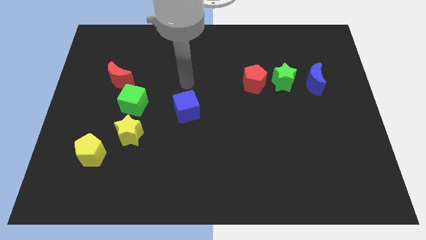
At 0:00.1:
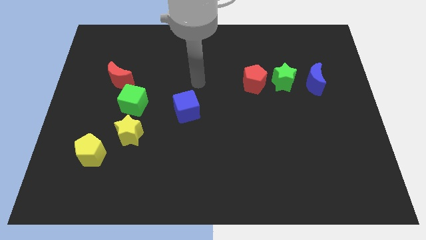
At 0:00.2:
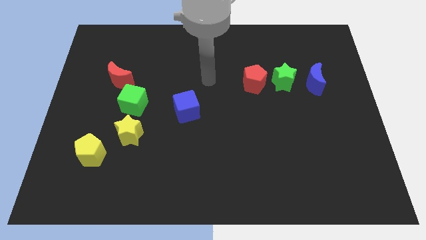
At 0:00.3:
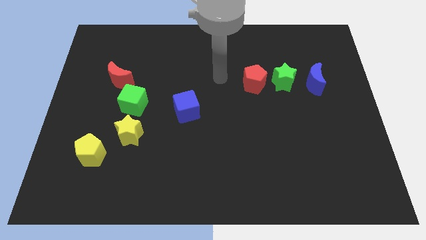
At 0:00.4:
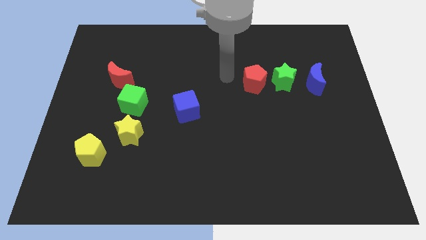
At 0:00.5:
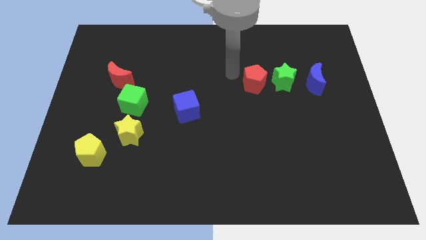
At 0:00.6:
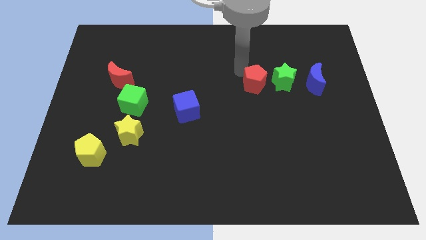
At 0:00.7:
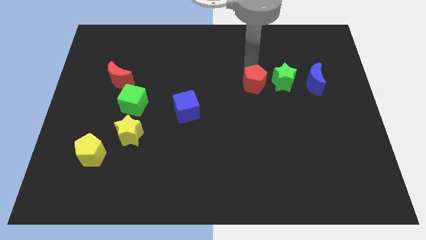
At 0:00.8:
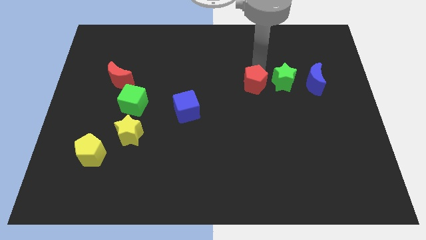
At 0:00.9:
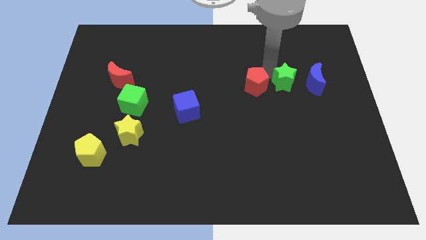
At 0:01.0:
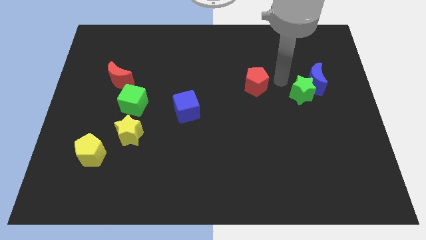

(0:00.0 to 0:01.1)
pull the red pentagon apart from the green star

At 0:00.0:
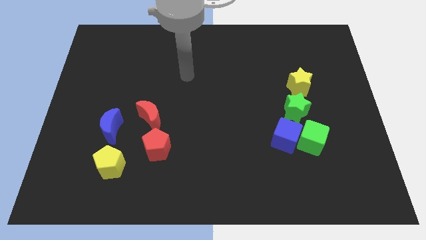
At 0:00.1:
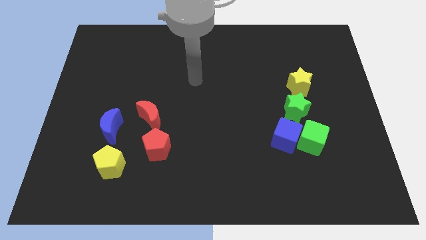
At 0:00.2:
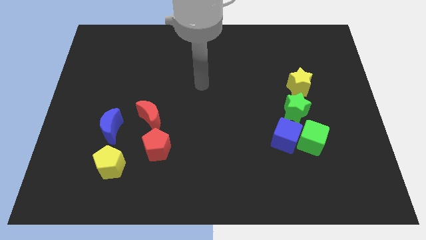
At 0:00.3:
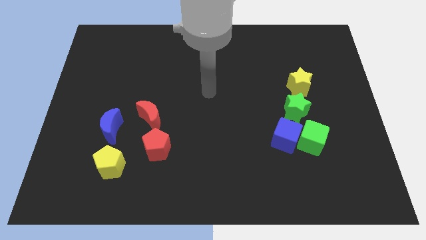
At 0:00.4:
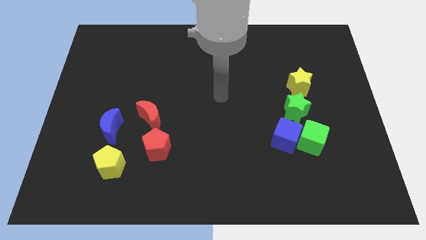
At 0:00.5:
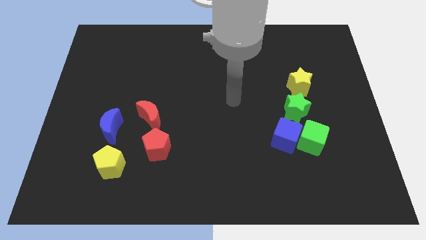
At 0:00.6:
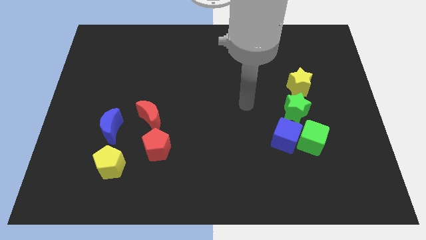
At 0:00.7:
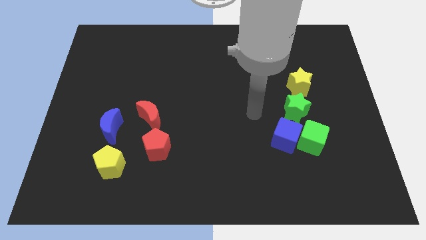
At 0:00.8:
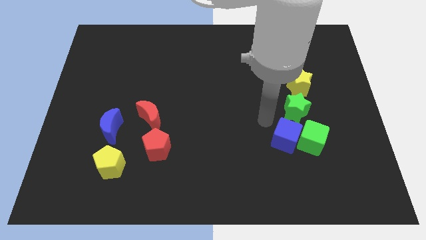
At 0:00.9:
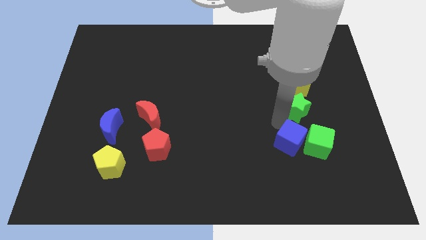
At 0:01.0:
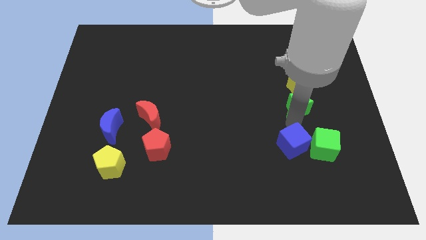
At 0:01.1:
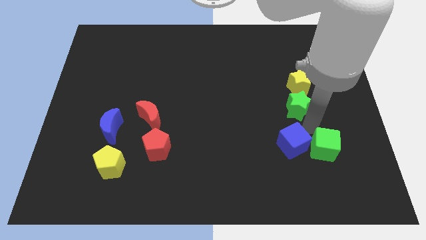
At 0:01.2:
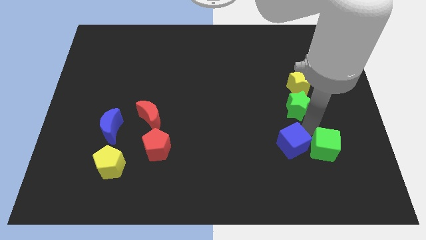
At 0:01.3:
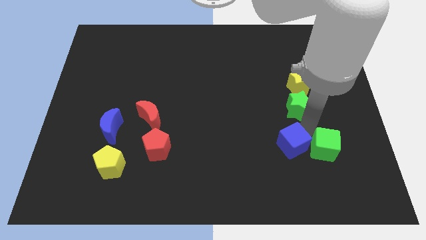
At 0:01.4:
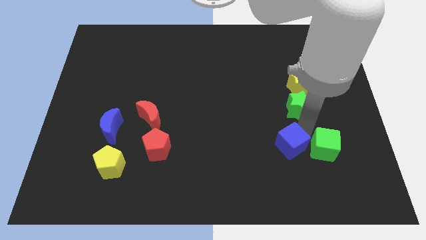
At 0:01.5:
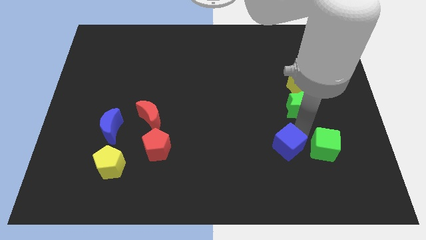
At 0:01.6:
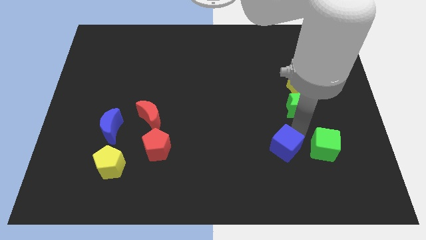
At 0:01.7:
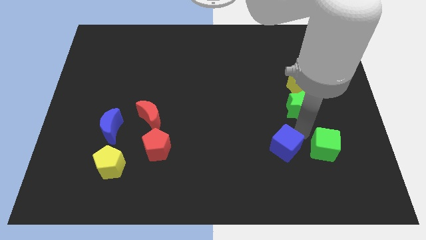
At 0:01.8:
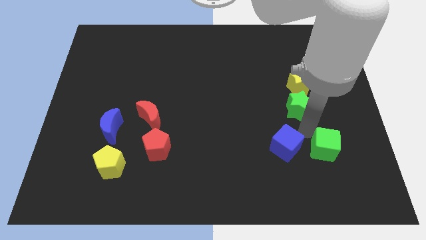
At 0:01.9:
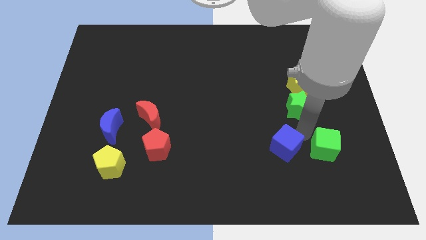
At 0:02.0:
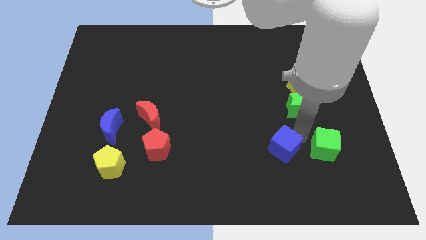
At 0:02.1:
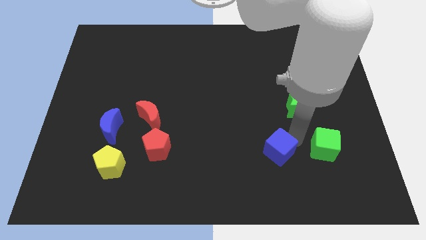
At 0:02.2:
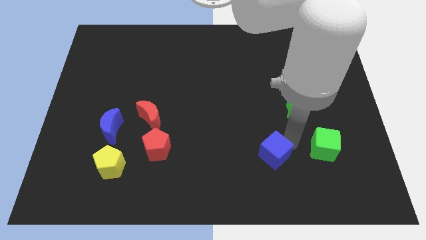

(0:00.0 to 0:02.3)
move the blue cube away from the green cube and green star

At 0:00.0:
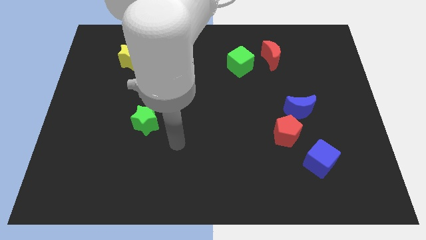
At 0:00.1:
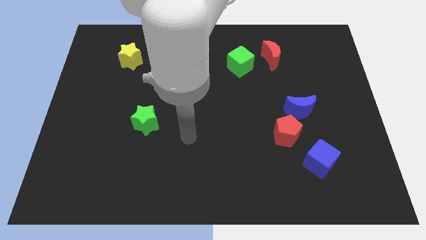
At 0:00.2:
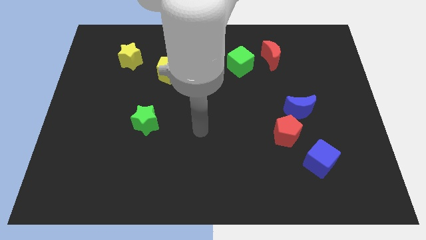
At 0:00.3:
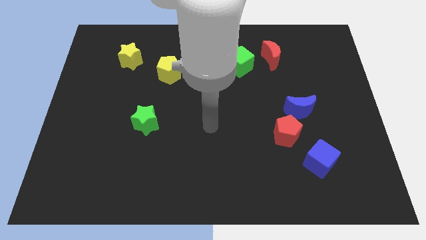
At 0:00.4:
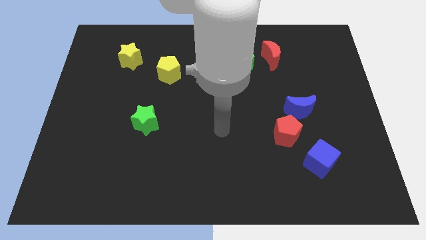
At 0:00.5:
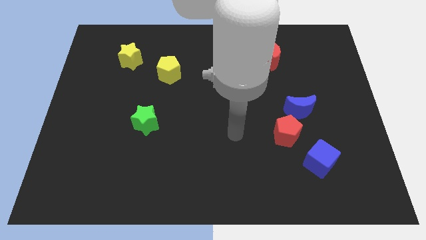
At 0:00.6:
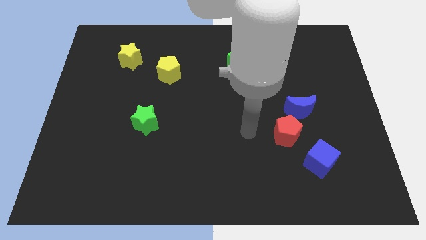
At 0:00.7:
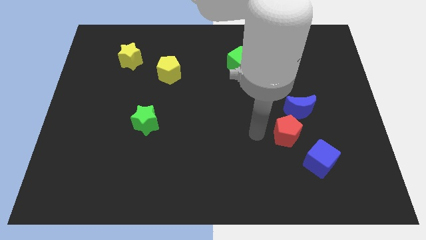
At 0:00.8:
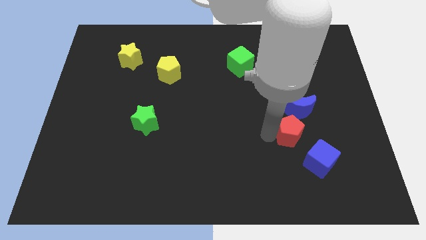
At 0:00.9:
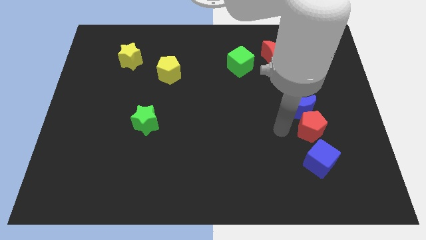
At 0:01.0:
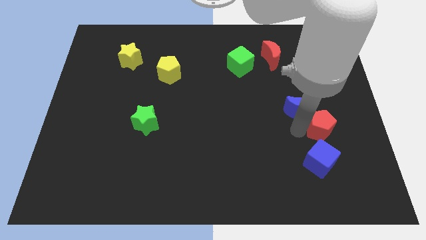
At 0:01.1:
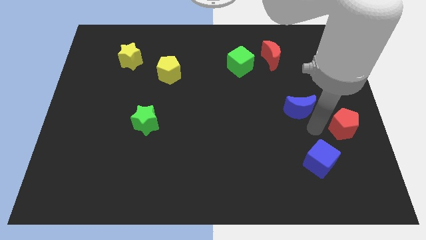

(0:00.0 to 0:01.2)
move the blue moon away from the red pentagon

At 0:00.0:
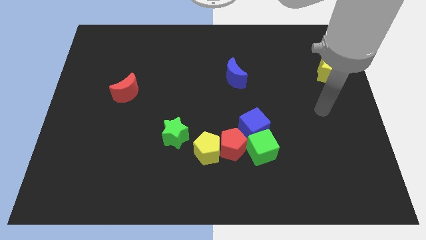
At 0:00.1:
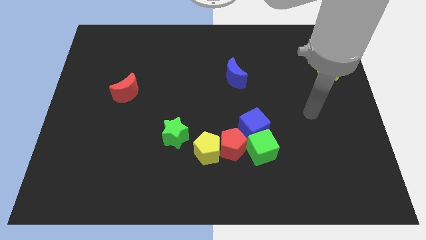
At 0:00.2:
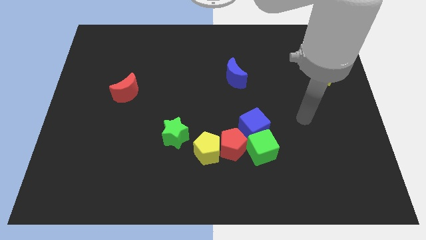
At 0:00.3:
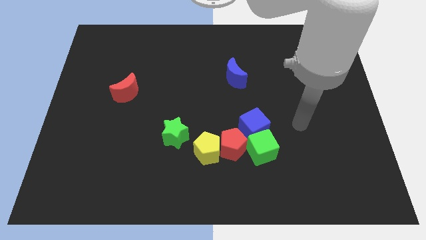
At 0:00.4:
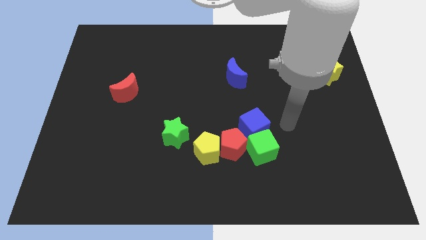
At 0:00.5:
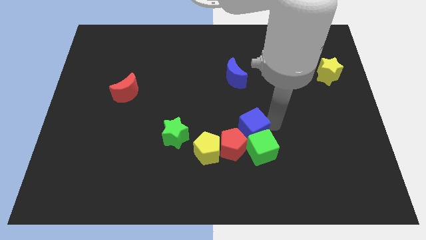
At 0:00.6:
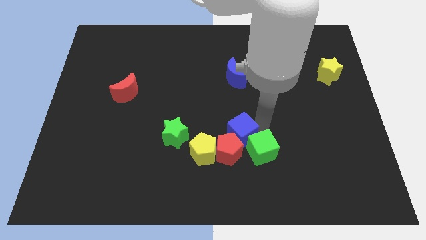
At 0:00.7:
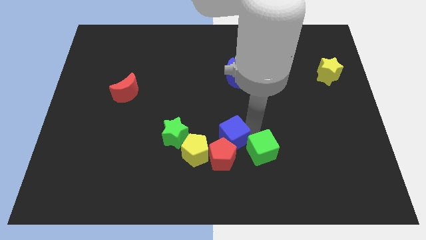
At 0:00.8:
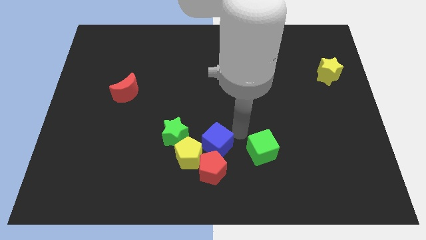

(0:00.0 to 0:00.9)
pull the green cube apart from the blue cube and red pentagon

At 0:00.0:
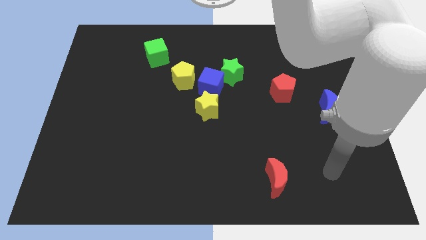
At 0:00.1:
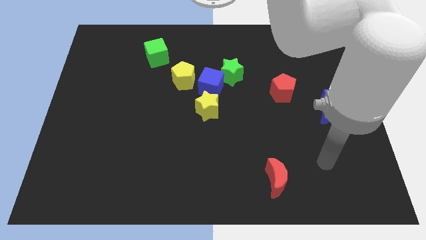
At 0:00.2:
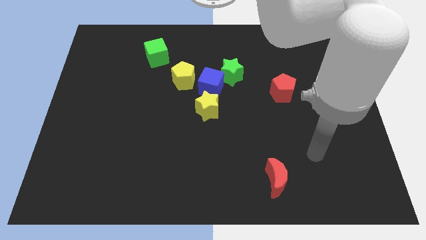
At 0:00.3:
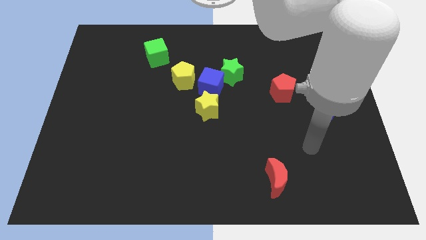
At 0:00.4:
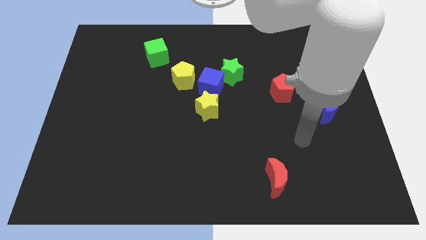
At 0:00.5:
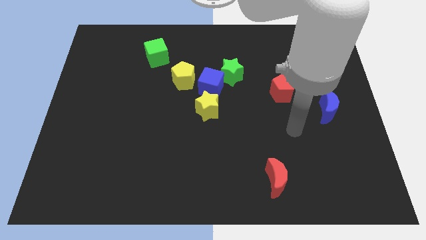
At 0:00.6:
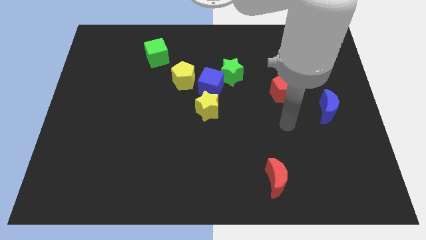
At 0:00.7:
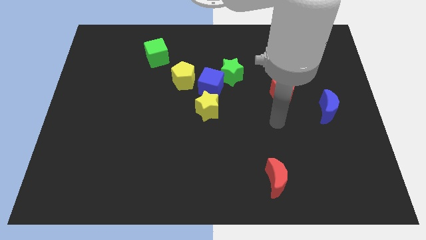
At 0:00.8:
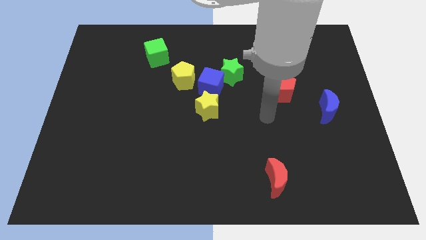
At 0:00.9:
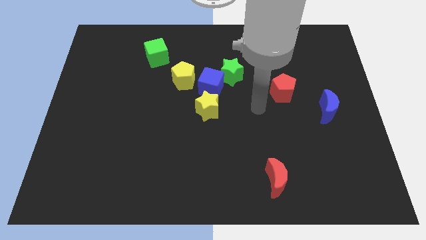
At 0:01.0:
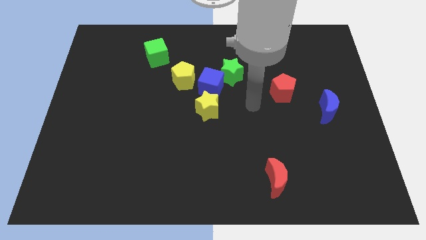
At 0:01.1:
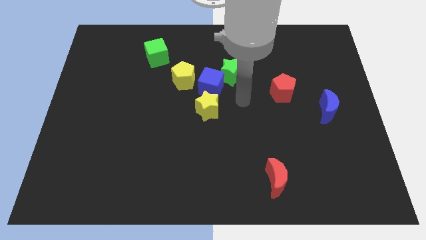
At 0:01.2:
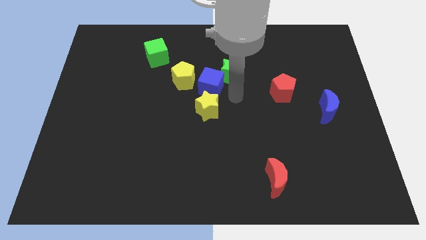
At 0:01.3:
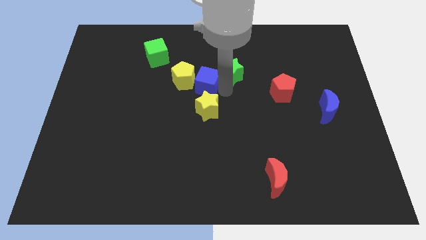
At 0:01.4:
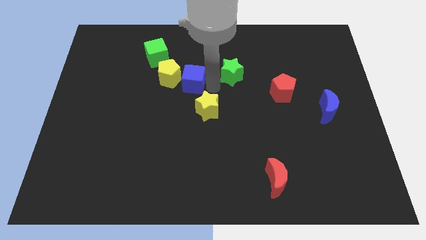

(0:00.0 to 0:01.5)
pull the green star apart from the blue cube

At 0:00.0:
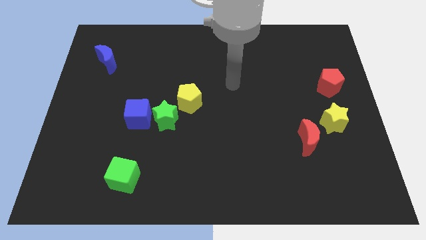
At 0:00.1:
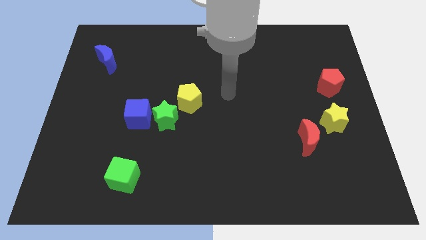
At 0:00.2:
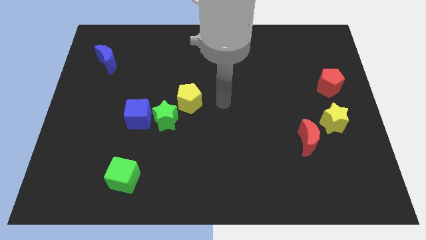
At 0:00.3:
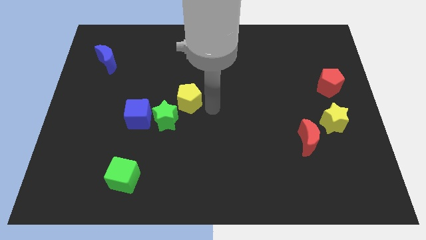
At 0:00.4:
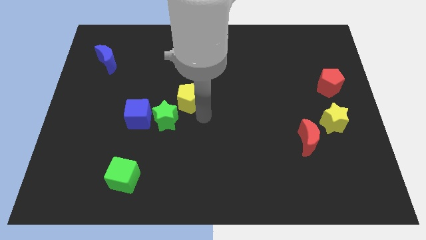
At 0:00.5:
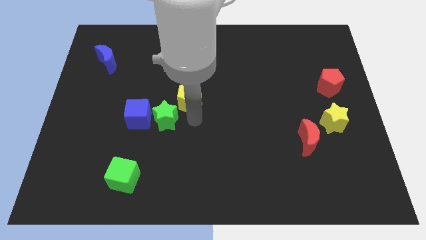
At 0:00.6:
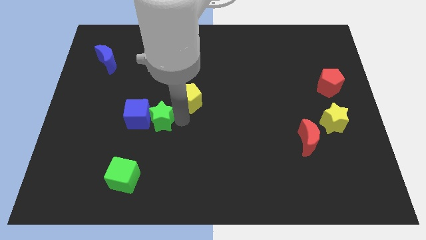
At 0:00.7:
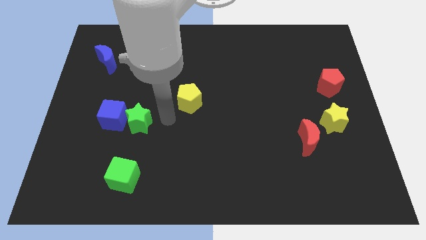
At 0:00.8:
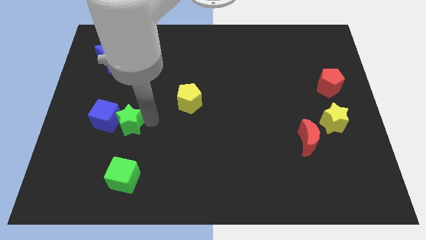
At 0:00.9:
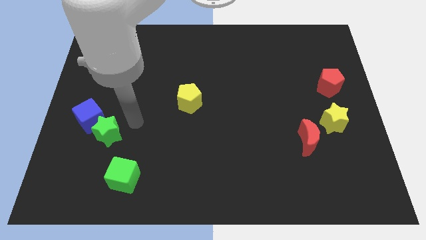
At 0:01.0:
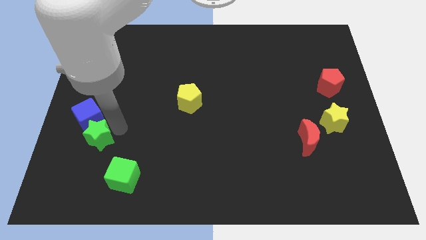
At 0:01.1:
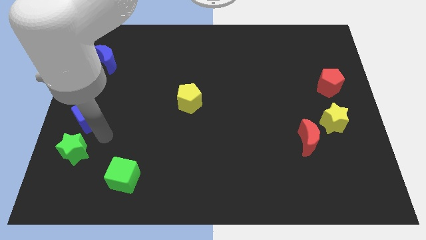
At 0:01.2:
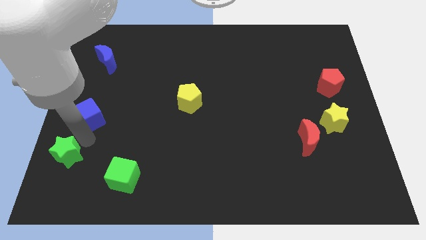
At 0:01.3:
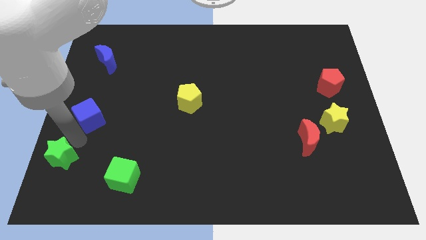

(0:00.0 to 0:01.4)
move the blue cube away from the green star

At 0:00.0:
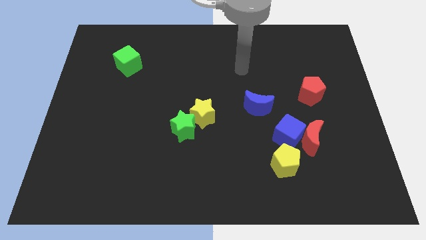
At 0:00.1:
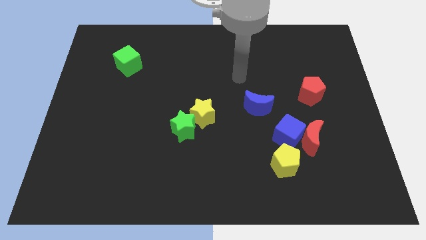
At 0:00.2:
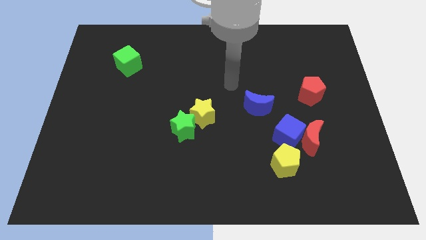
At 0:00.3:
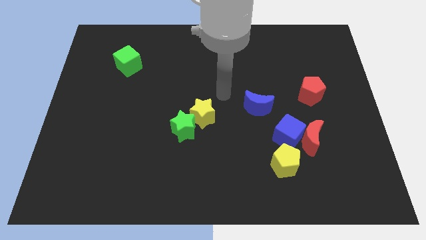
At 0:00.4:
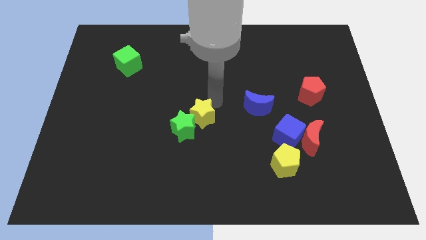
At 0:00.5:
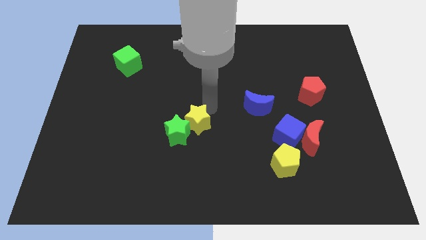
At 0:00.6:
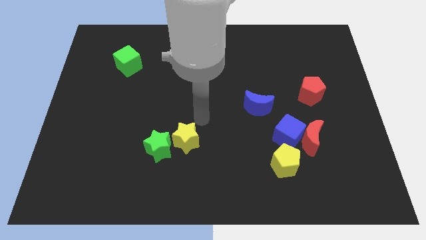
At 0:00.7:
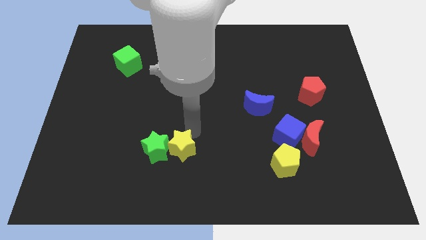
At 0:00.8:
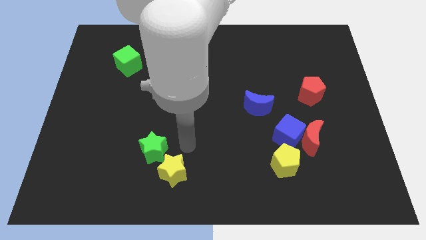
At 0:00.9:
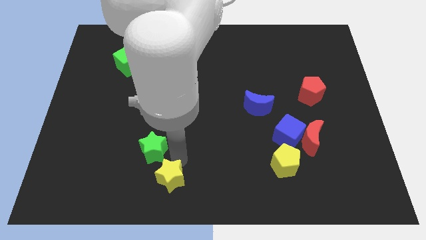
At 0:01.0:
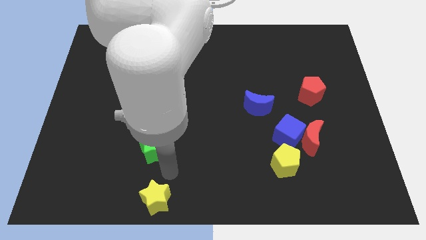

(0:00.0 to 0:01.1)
pull the green star apart from the yellow star
